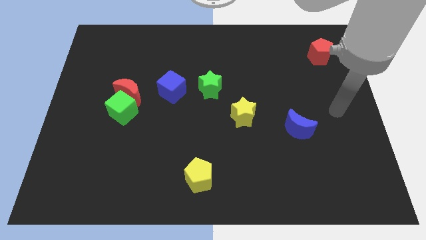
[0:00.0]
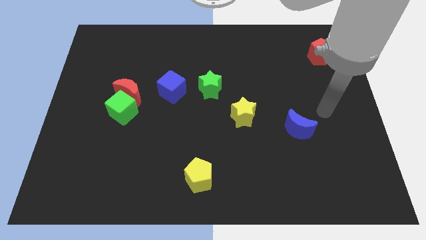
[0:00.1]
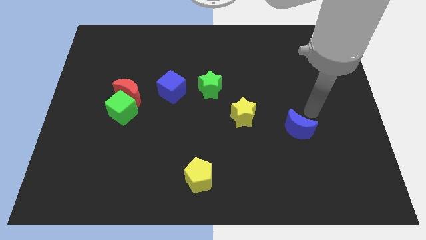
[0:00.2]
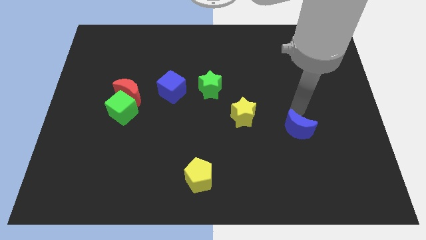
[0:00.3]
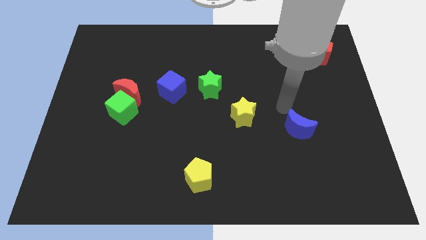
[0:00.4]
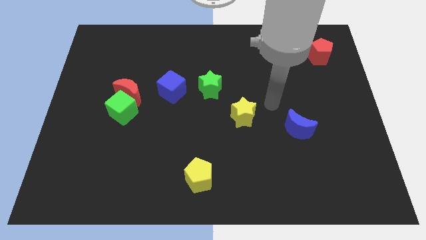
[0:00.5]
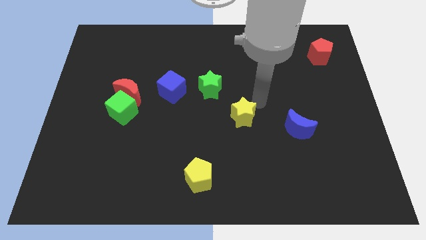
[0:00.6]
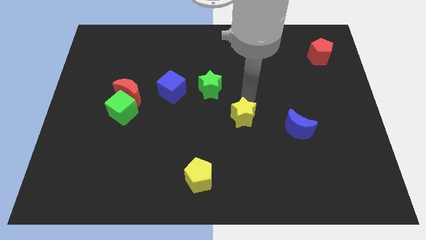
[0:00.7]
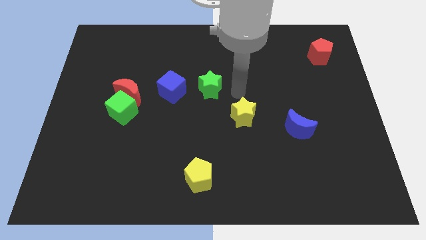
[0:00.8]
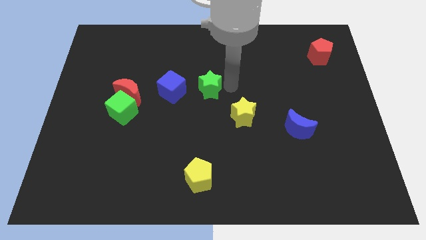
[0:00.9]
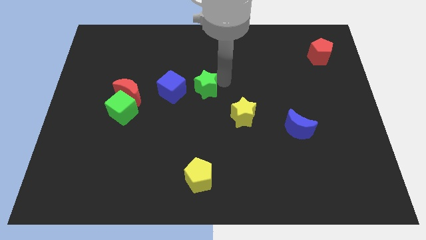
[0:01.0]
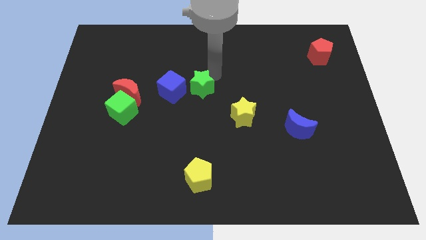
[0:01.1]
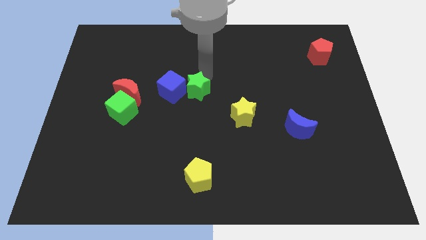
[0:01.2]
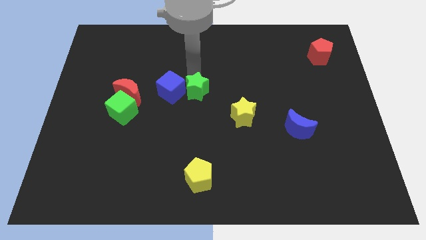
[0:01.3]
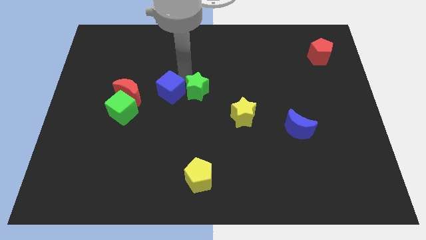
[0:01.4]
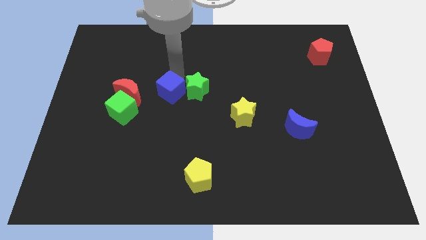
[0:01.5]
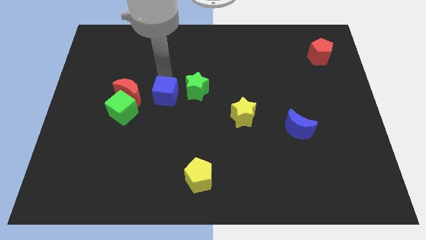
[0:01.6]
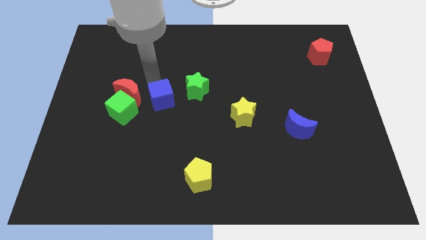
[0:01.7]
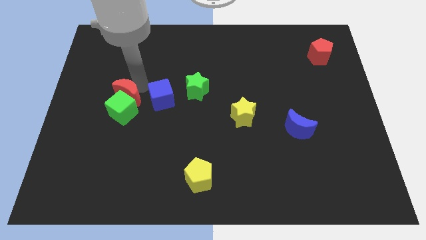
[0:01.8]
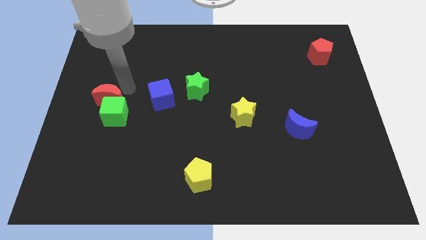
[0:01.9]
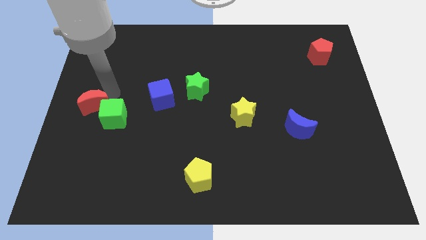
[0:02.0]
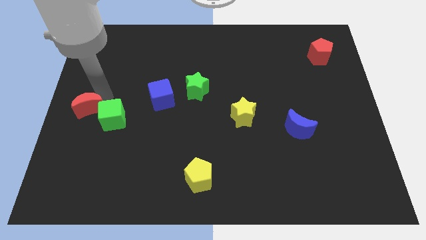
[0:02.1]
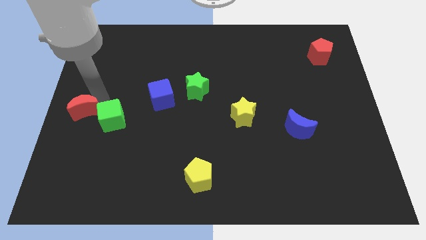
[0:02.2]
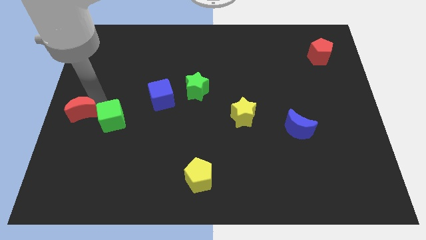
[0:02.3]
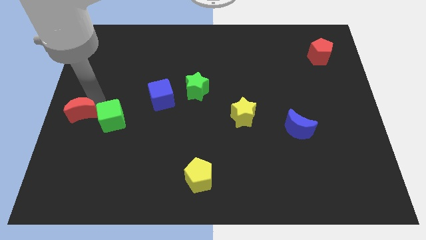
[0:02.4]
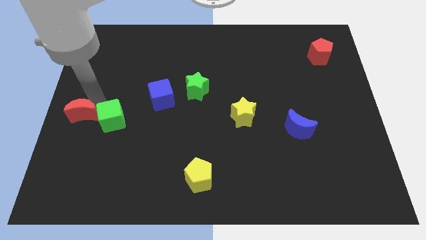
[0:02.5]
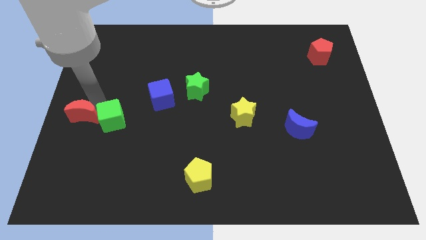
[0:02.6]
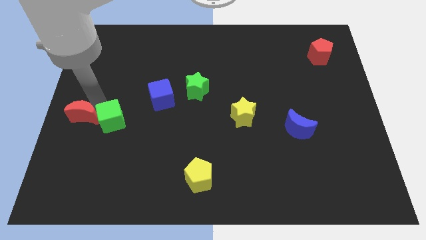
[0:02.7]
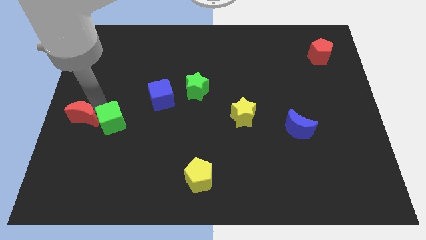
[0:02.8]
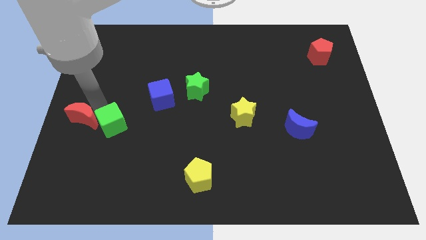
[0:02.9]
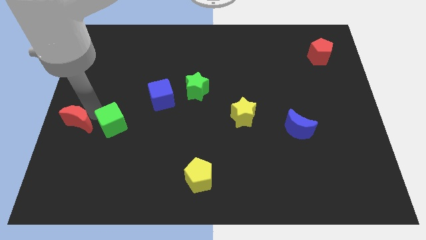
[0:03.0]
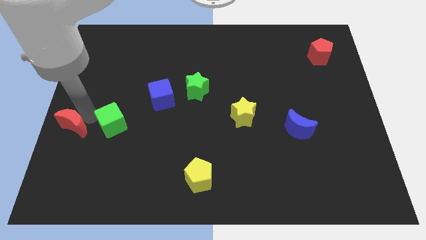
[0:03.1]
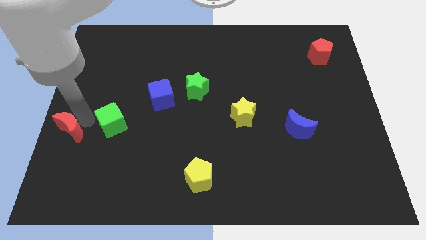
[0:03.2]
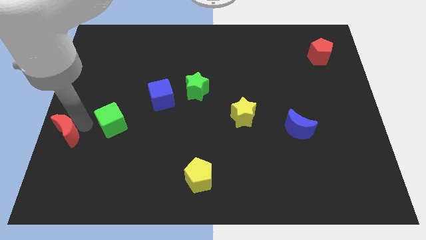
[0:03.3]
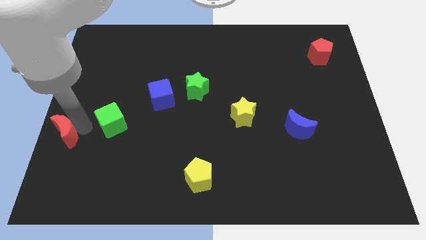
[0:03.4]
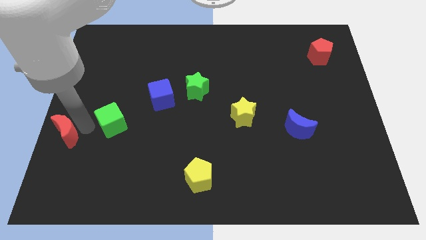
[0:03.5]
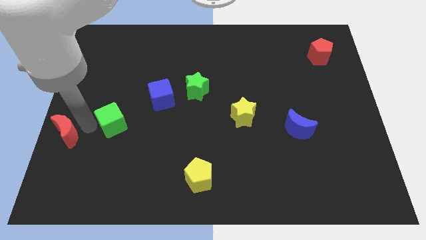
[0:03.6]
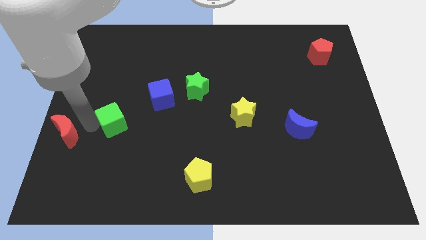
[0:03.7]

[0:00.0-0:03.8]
separate the green cube from the red moon

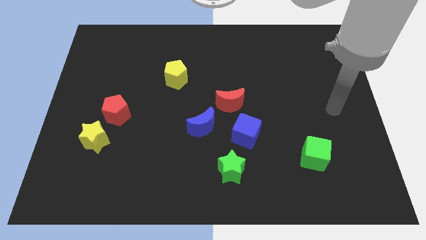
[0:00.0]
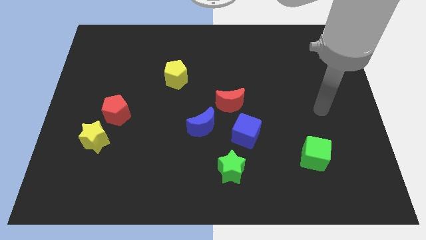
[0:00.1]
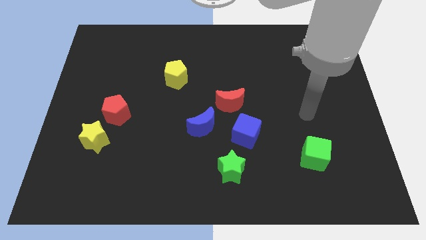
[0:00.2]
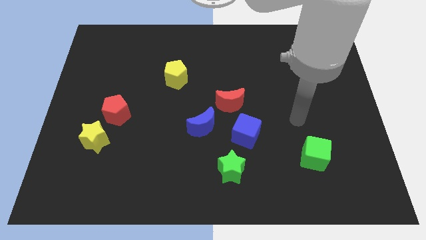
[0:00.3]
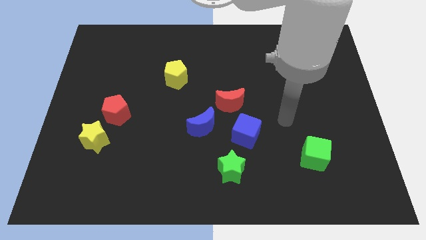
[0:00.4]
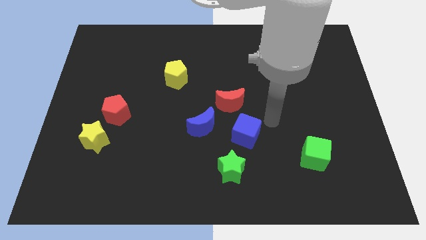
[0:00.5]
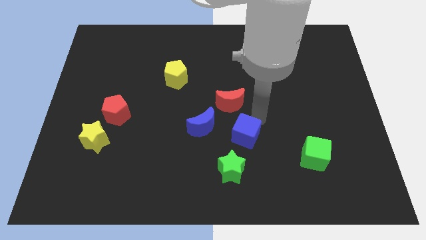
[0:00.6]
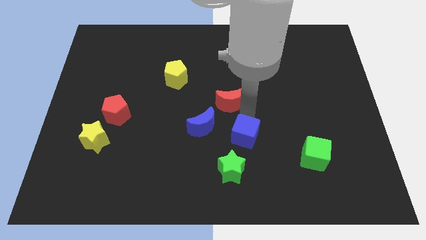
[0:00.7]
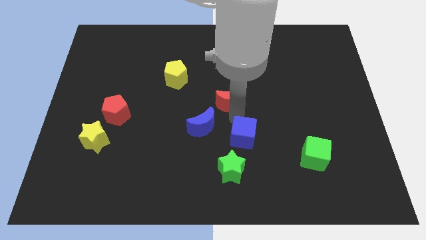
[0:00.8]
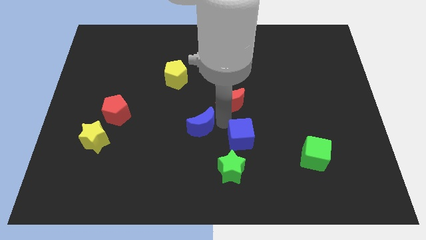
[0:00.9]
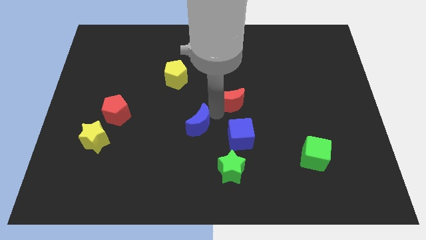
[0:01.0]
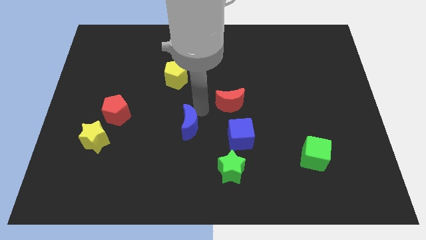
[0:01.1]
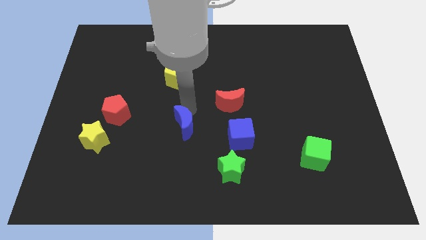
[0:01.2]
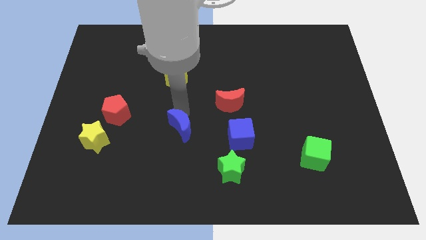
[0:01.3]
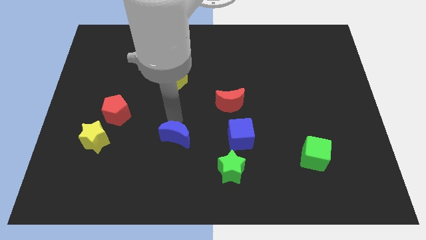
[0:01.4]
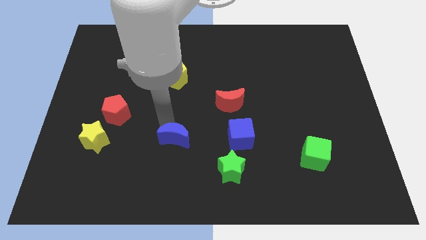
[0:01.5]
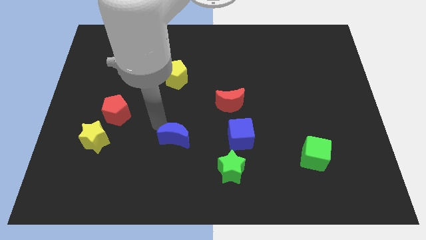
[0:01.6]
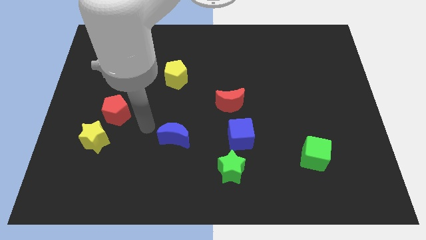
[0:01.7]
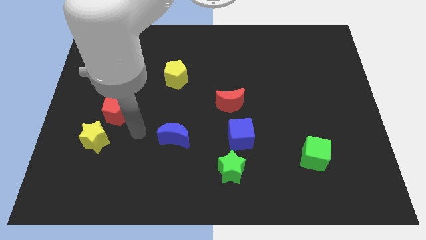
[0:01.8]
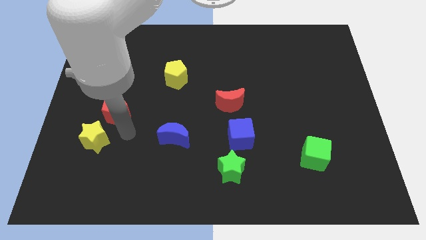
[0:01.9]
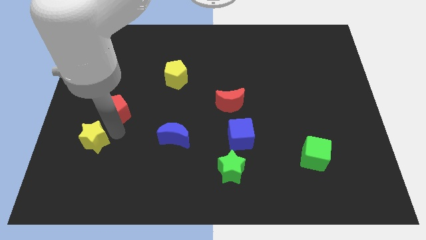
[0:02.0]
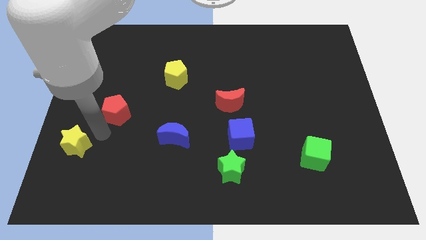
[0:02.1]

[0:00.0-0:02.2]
move the red pentagon away from the yellow star

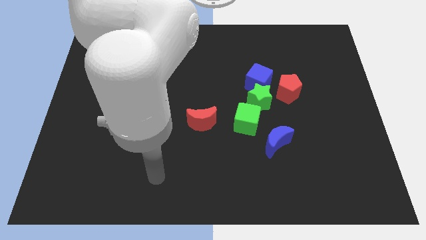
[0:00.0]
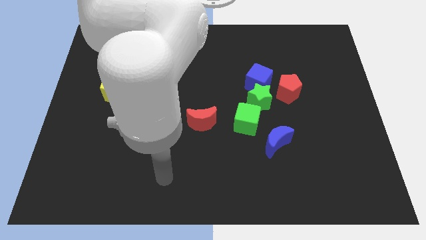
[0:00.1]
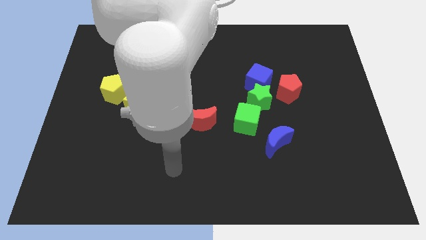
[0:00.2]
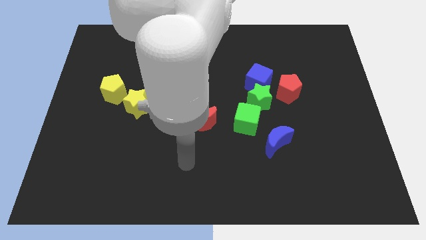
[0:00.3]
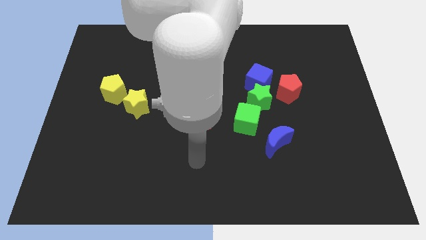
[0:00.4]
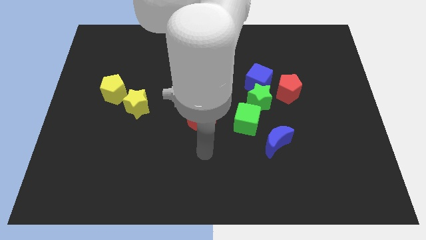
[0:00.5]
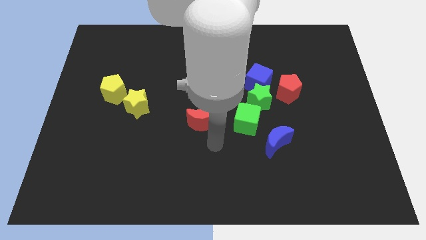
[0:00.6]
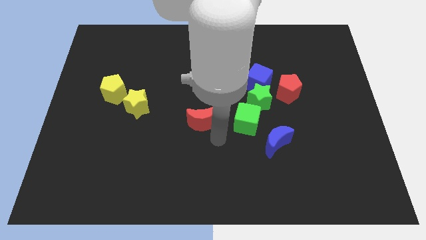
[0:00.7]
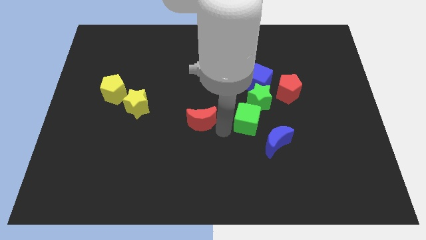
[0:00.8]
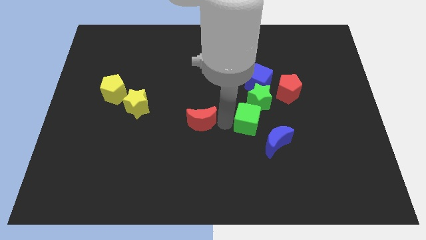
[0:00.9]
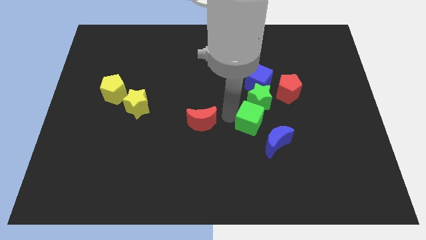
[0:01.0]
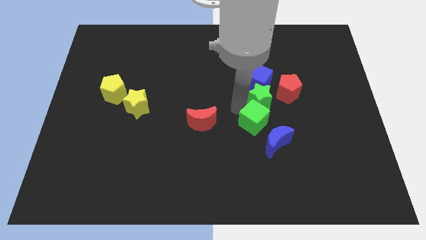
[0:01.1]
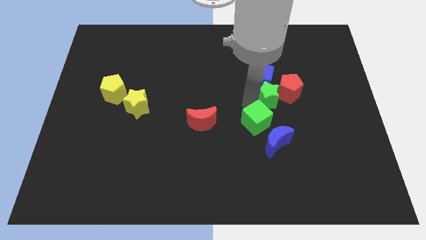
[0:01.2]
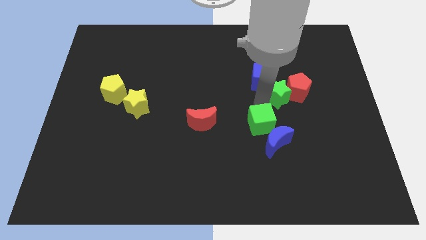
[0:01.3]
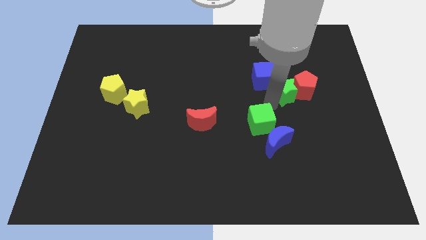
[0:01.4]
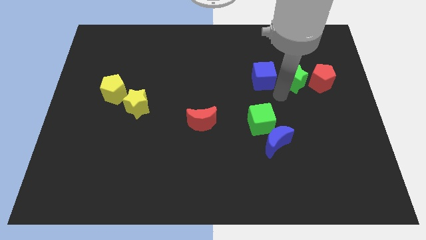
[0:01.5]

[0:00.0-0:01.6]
pull the blue cube apart from the green star and red pentagon

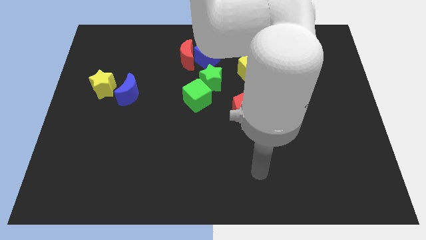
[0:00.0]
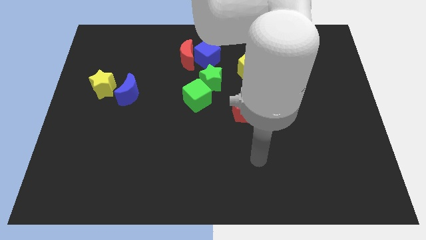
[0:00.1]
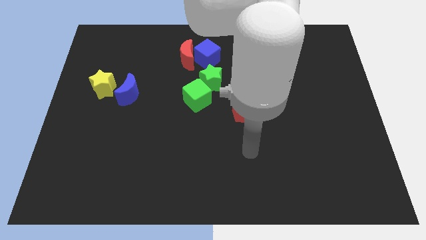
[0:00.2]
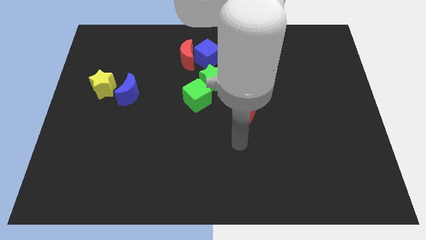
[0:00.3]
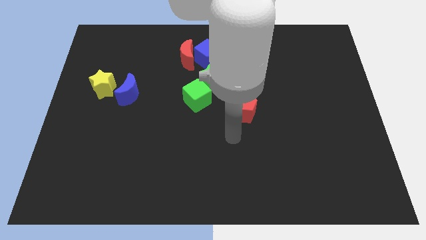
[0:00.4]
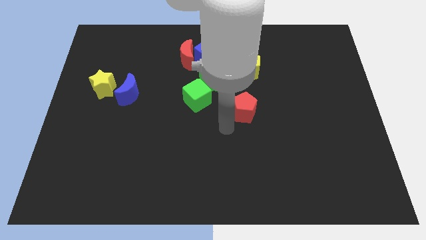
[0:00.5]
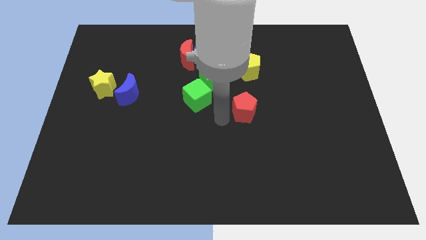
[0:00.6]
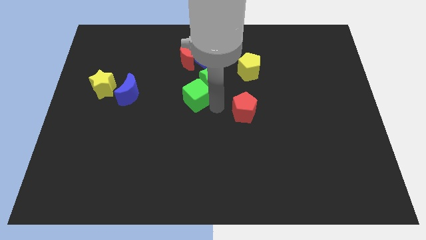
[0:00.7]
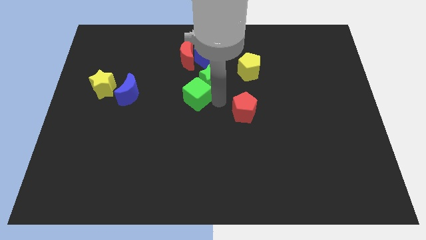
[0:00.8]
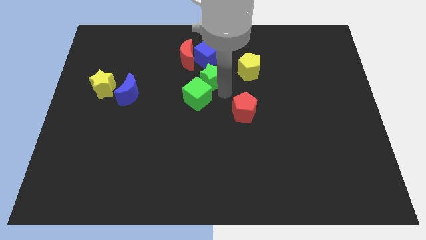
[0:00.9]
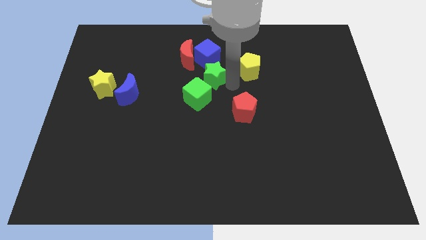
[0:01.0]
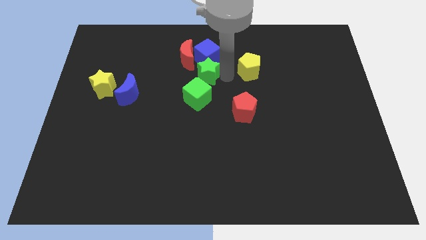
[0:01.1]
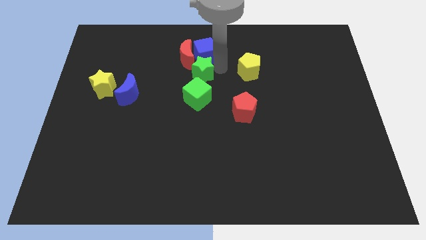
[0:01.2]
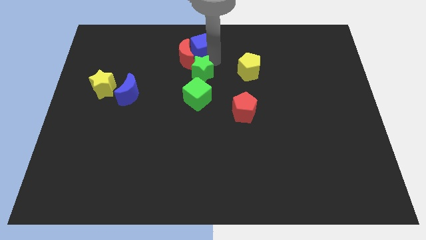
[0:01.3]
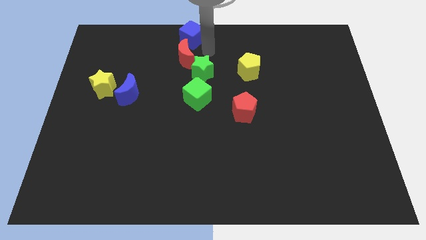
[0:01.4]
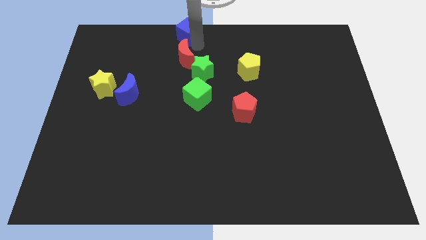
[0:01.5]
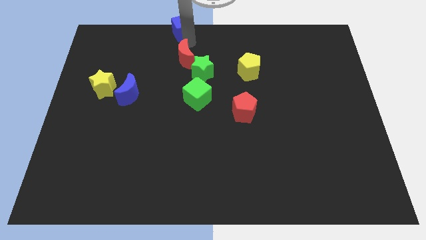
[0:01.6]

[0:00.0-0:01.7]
separate the red moon from the blue cube
